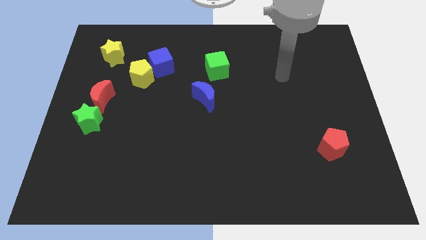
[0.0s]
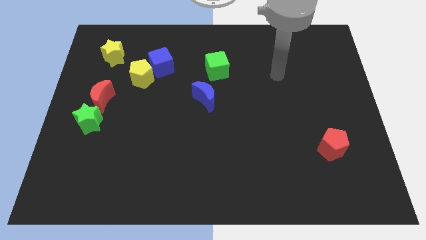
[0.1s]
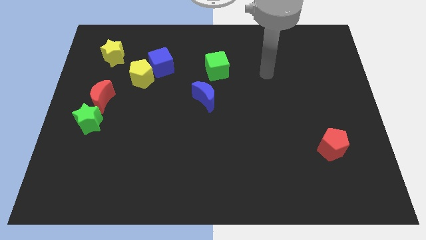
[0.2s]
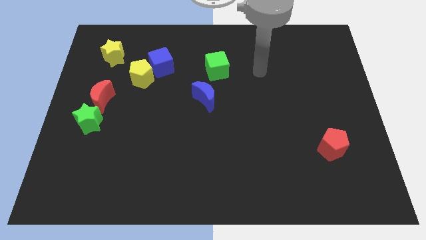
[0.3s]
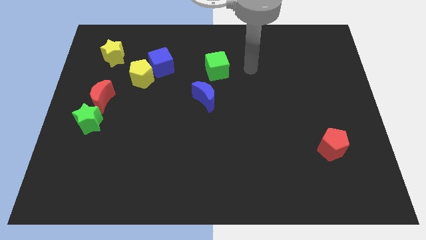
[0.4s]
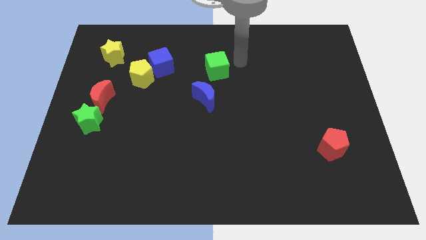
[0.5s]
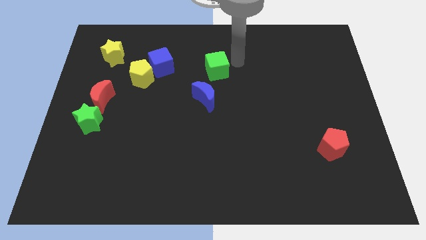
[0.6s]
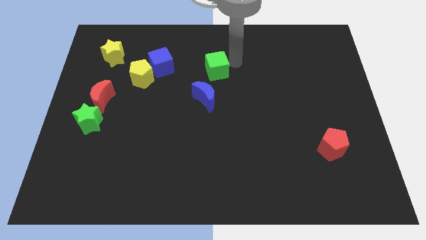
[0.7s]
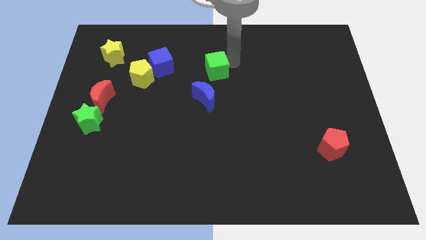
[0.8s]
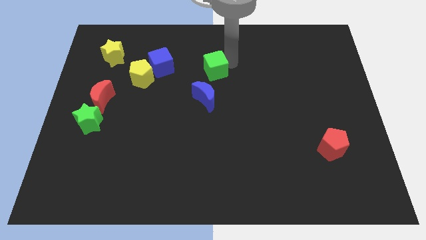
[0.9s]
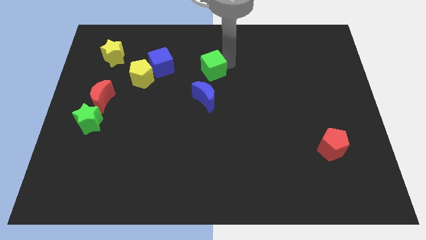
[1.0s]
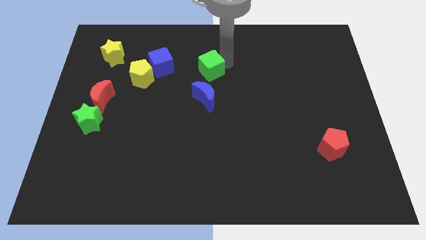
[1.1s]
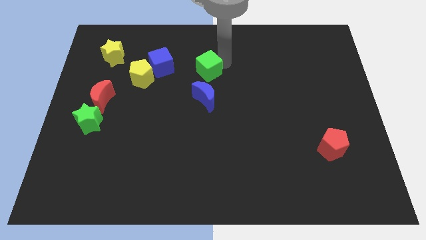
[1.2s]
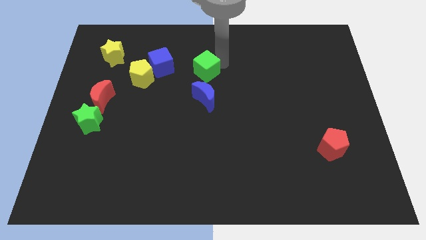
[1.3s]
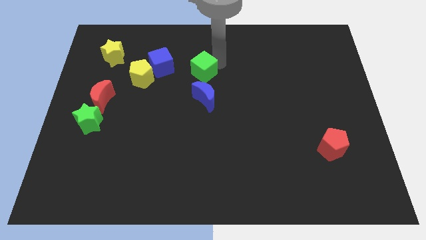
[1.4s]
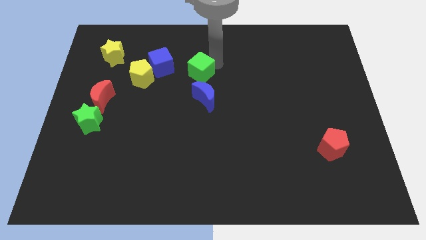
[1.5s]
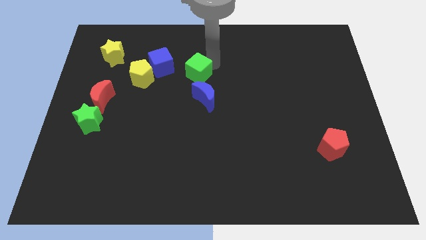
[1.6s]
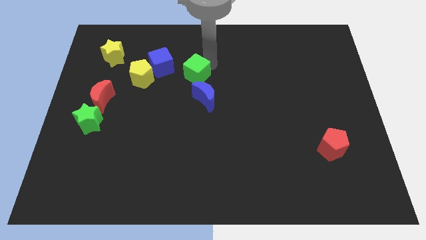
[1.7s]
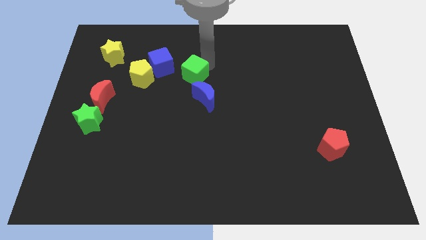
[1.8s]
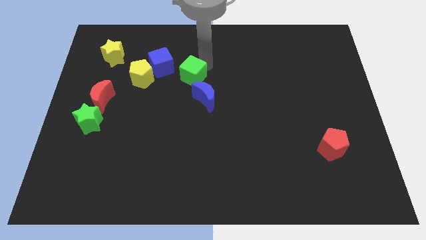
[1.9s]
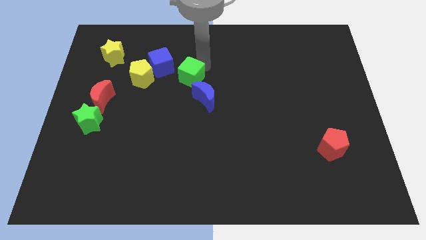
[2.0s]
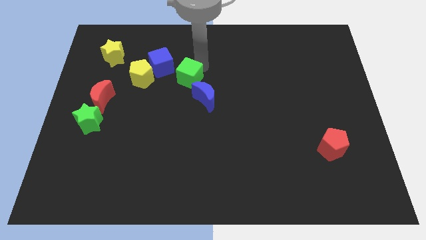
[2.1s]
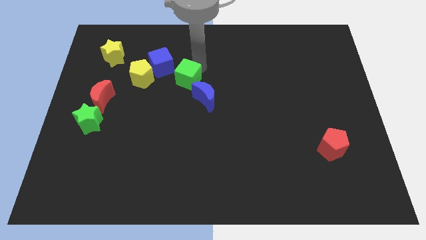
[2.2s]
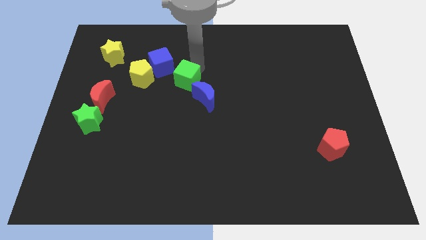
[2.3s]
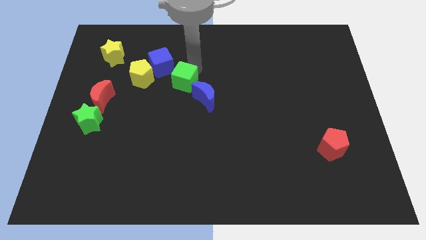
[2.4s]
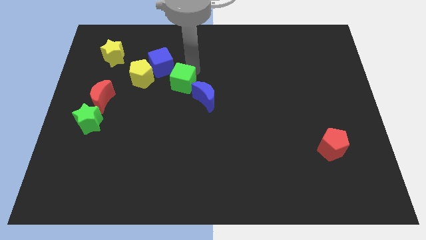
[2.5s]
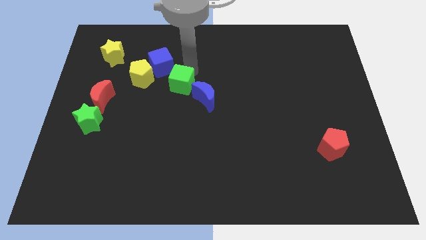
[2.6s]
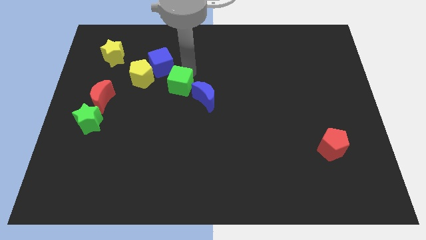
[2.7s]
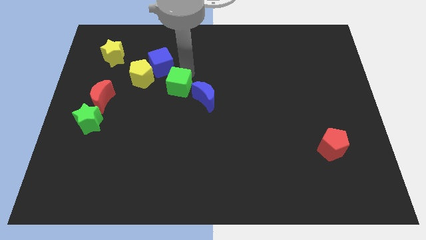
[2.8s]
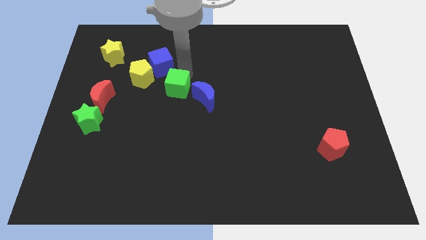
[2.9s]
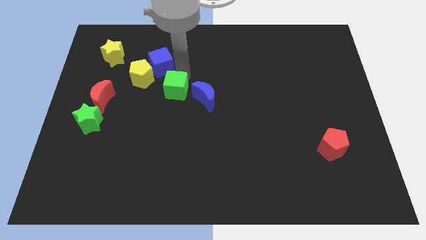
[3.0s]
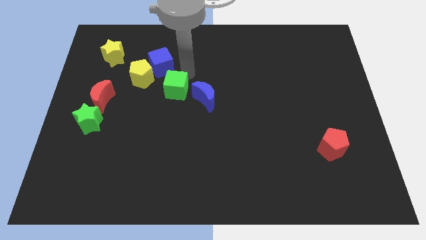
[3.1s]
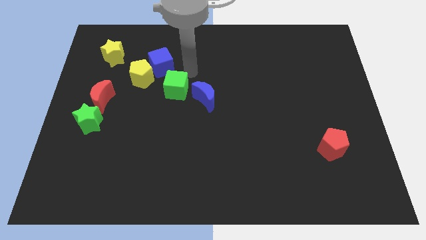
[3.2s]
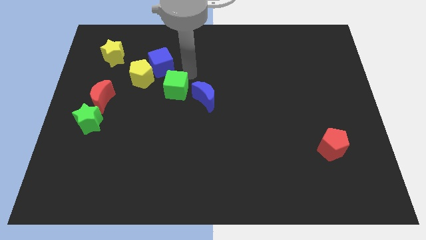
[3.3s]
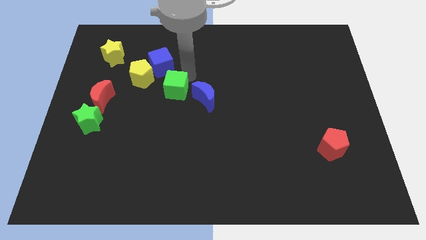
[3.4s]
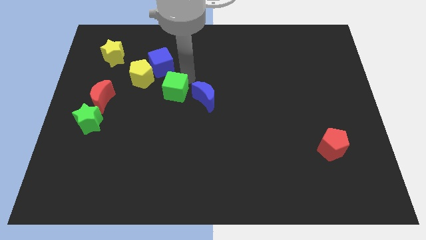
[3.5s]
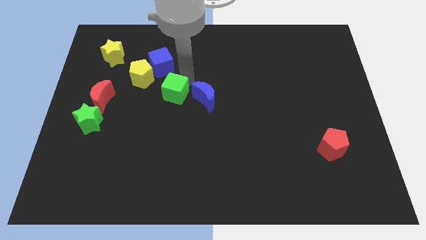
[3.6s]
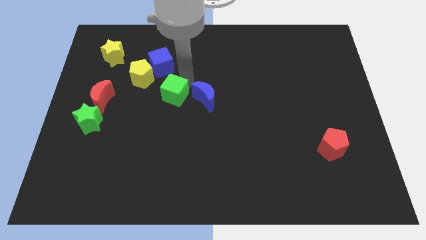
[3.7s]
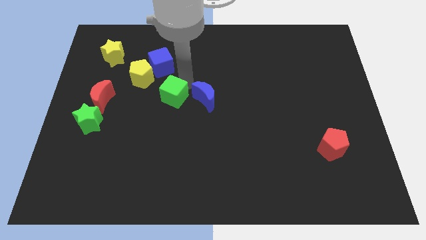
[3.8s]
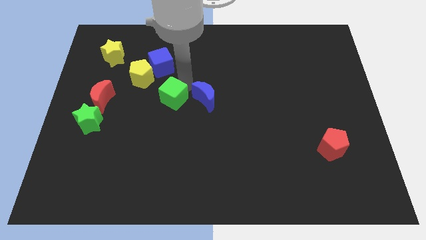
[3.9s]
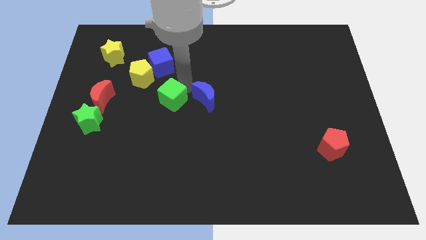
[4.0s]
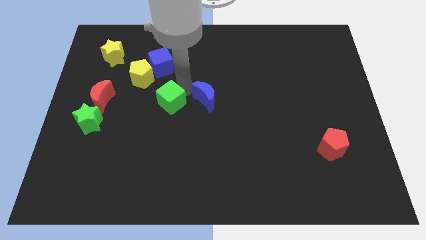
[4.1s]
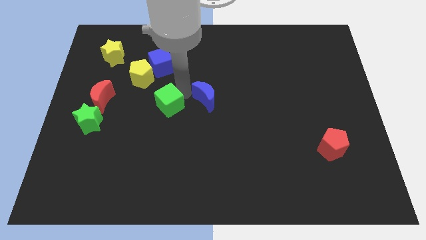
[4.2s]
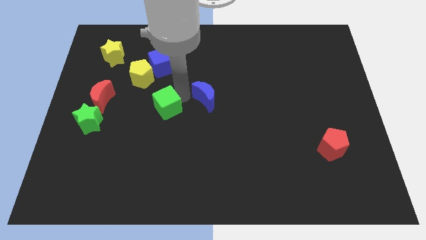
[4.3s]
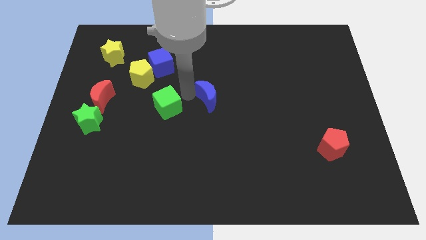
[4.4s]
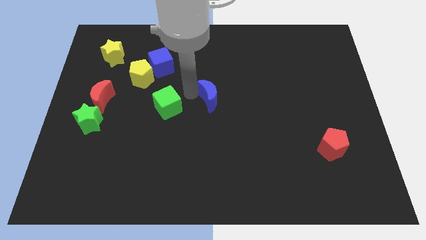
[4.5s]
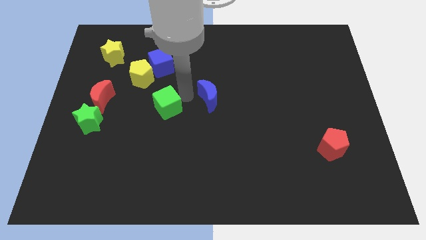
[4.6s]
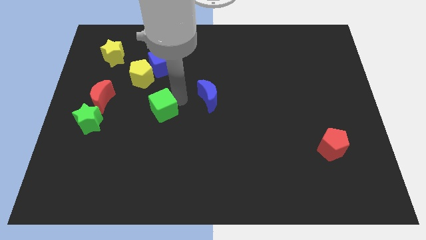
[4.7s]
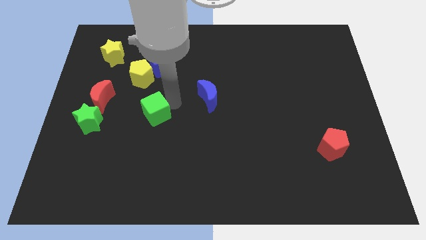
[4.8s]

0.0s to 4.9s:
move the green cube down and then left

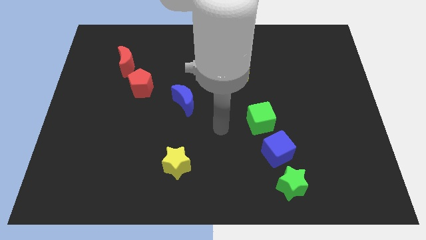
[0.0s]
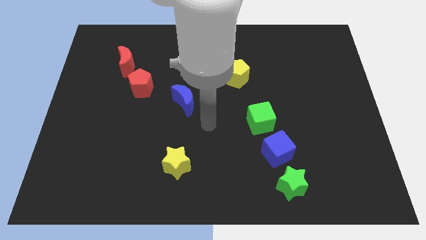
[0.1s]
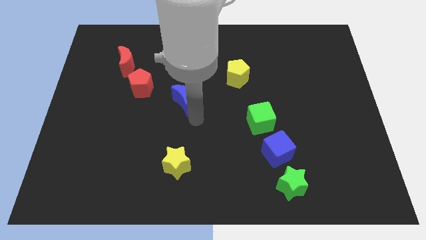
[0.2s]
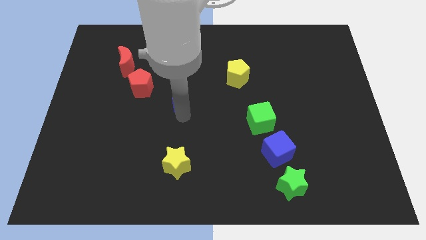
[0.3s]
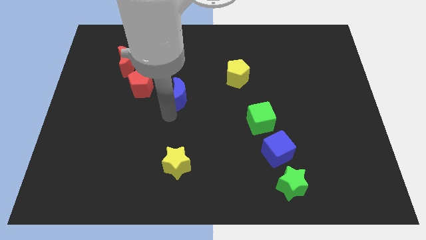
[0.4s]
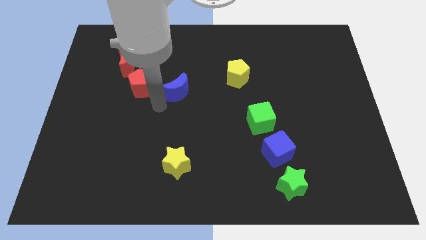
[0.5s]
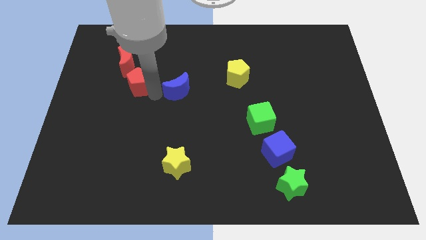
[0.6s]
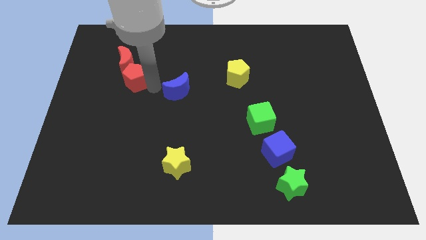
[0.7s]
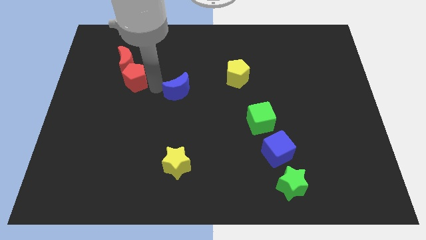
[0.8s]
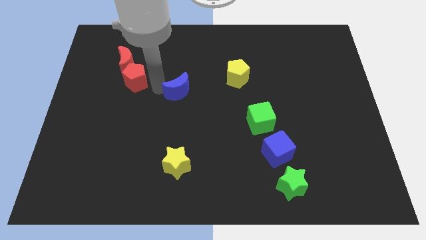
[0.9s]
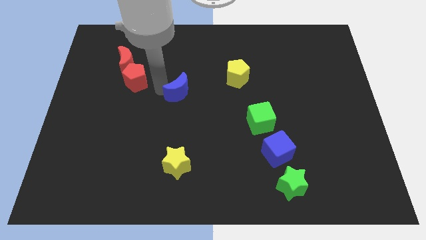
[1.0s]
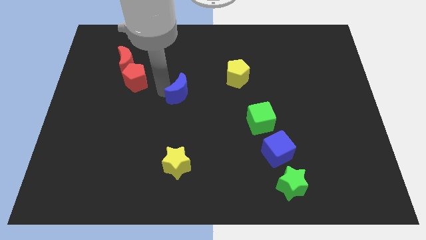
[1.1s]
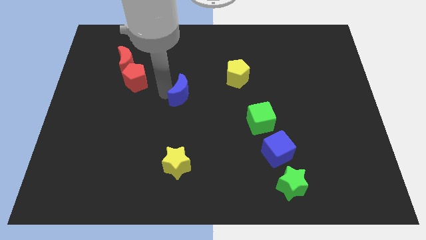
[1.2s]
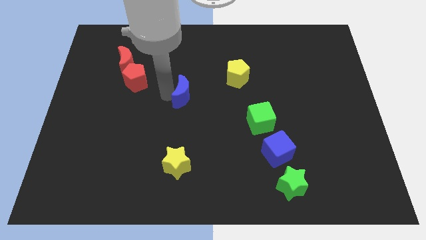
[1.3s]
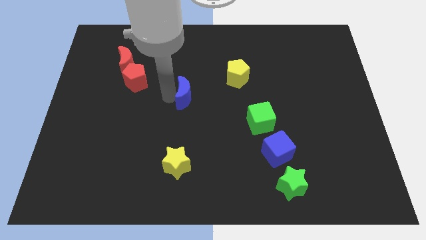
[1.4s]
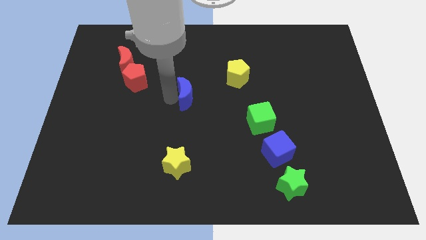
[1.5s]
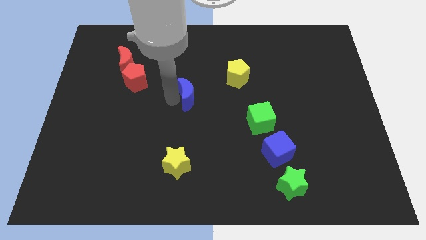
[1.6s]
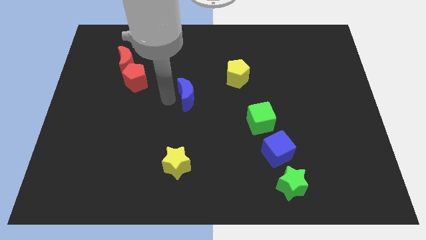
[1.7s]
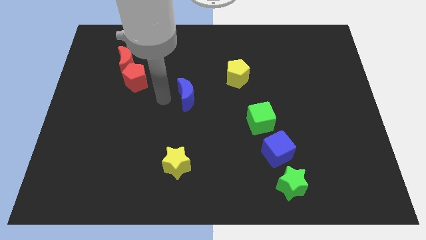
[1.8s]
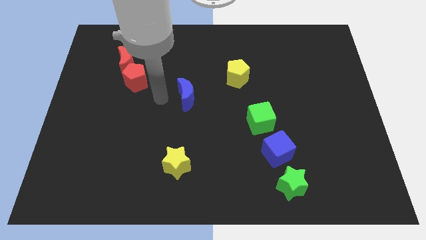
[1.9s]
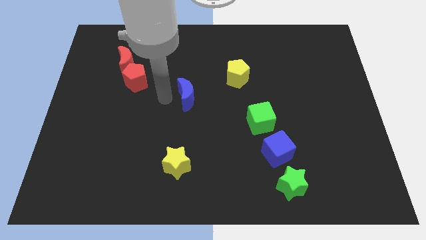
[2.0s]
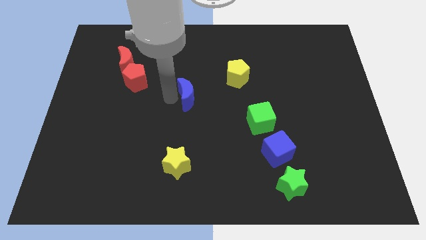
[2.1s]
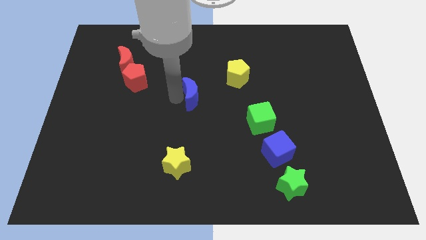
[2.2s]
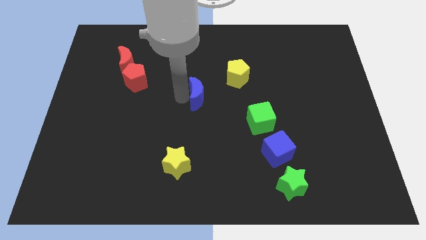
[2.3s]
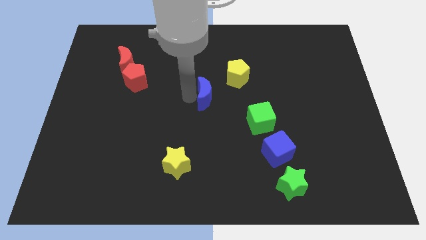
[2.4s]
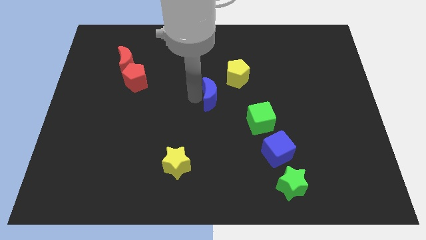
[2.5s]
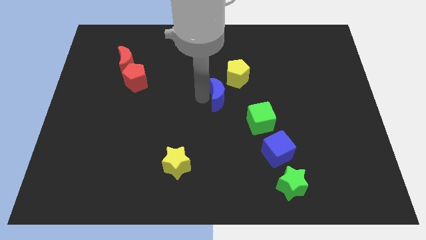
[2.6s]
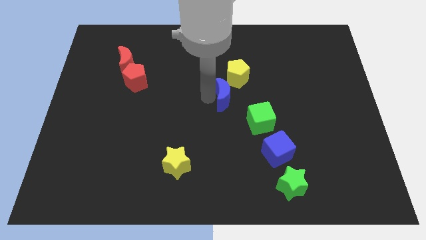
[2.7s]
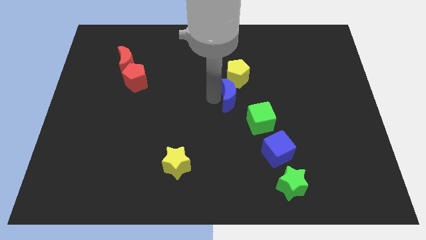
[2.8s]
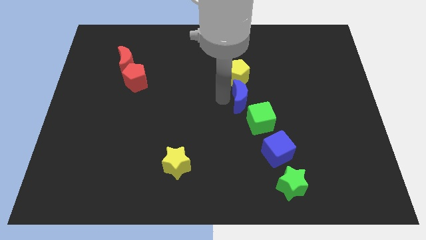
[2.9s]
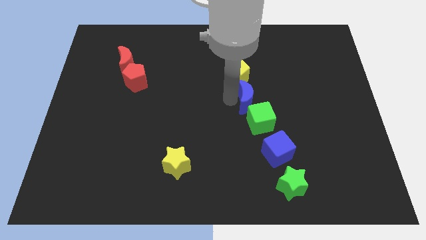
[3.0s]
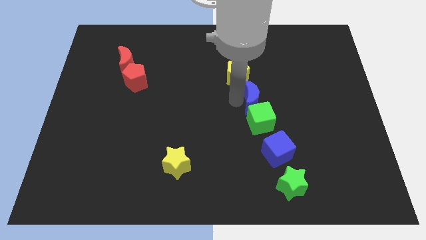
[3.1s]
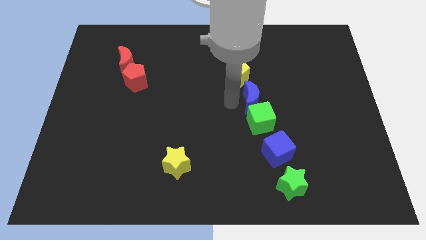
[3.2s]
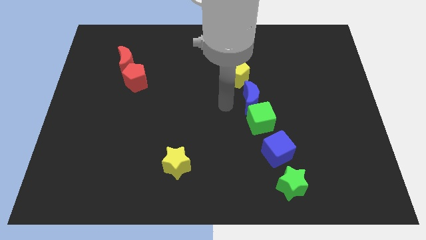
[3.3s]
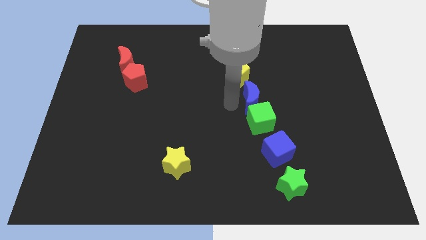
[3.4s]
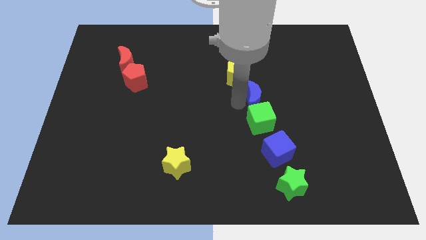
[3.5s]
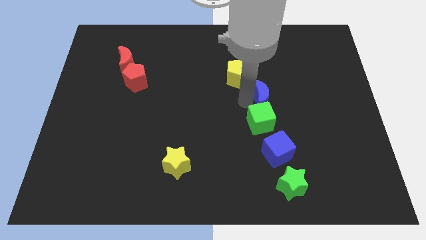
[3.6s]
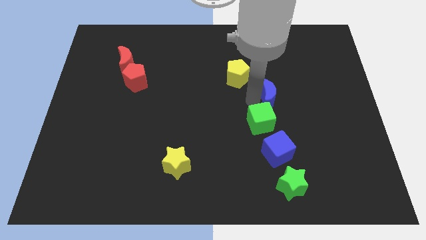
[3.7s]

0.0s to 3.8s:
push the blue moon right
